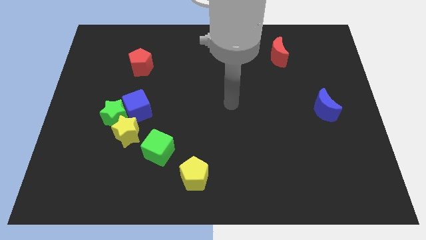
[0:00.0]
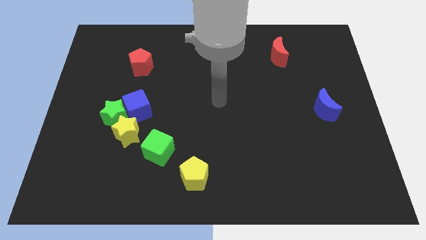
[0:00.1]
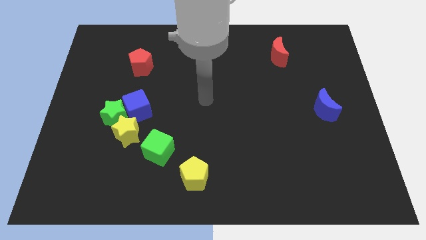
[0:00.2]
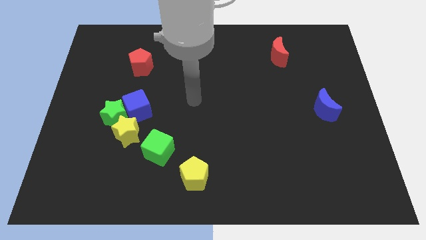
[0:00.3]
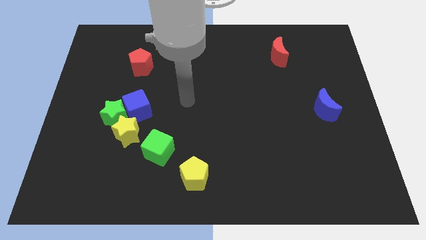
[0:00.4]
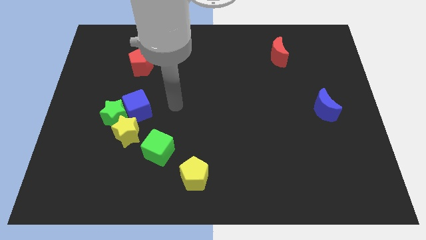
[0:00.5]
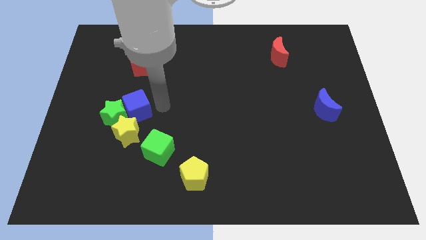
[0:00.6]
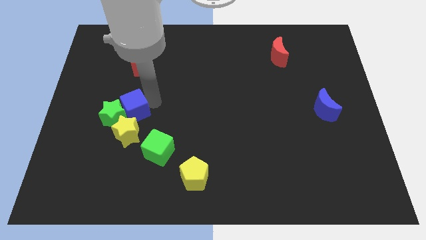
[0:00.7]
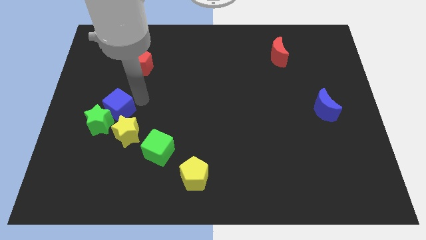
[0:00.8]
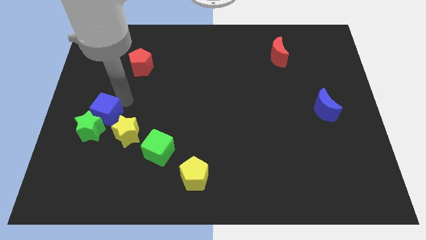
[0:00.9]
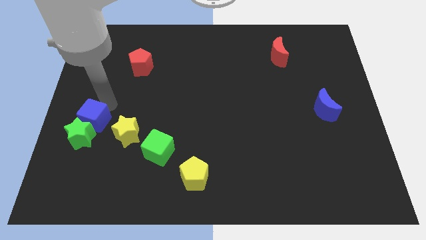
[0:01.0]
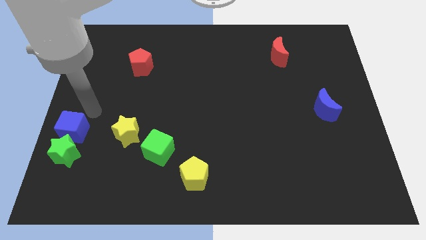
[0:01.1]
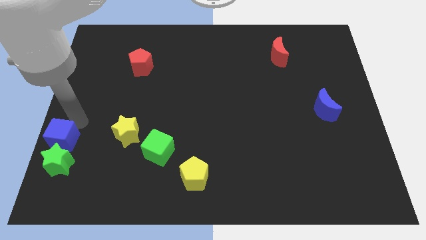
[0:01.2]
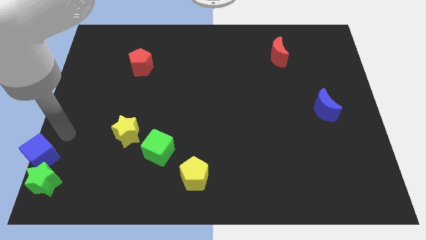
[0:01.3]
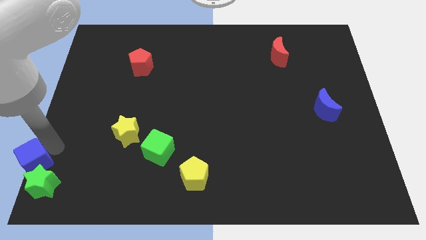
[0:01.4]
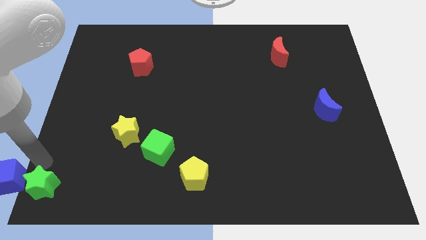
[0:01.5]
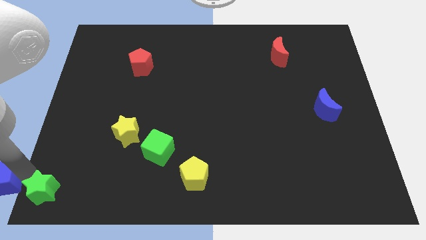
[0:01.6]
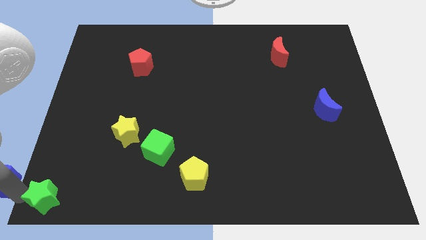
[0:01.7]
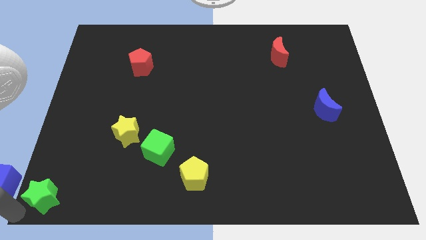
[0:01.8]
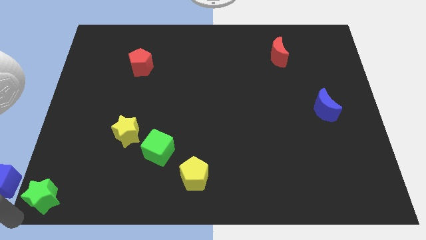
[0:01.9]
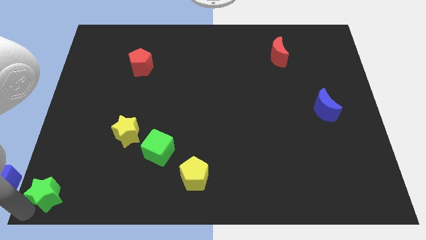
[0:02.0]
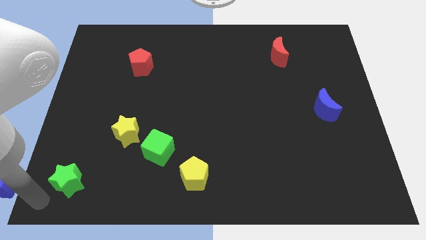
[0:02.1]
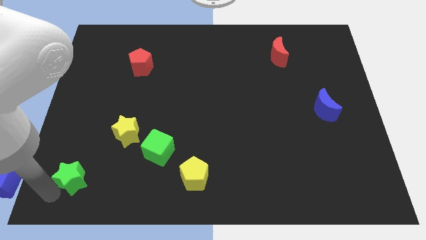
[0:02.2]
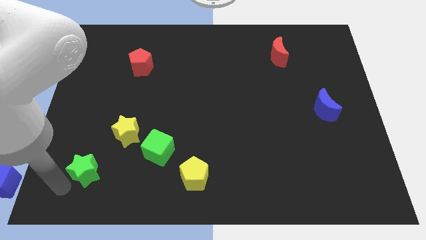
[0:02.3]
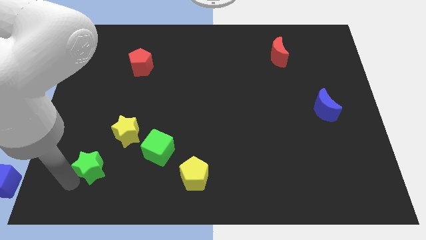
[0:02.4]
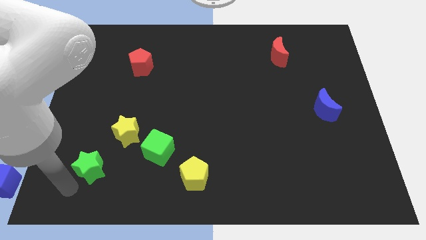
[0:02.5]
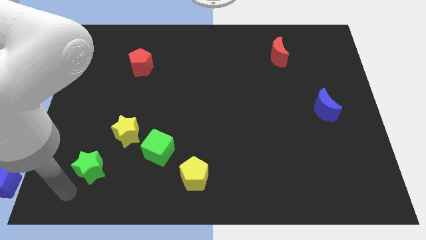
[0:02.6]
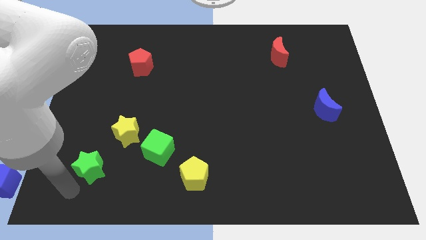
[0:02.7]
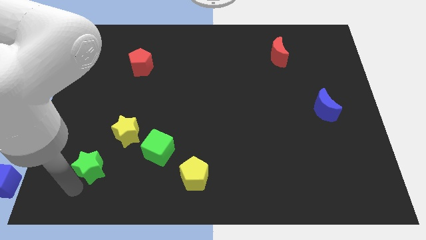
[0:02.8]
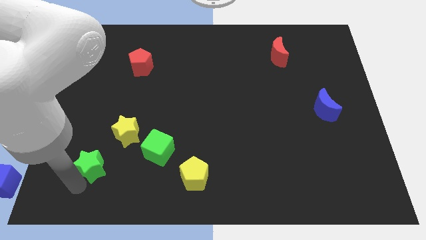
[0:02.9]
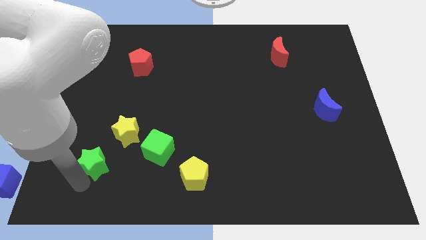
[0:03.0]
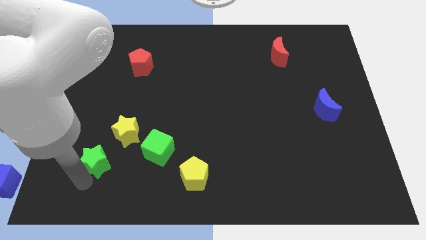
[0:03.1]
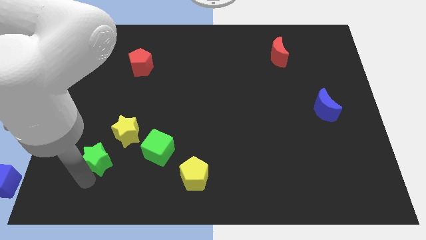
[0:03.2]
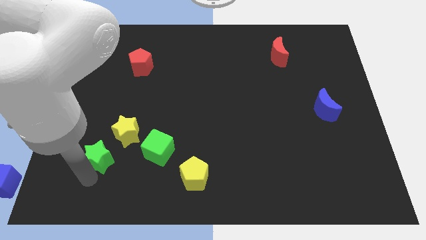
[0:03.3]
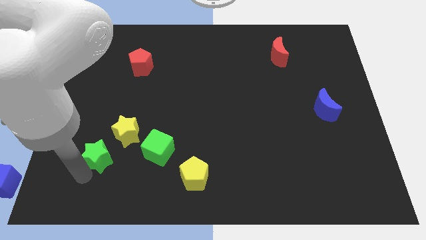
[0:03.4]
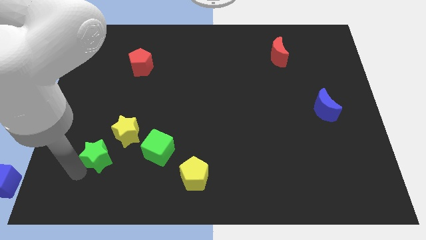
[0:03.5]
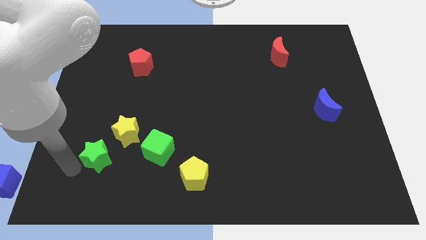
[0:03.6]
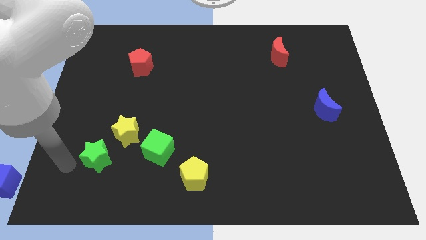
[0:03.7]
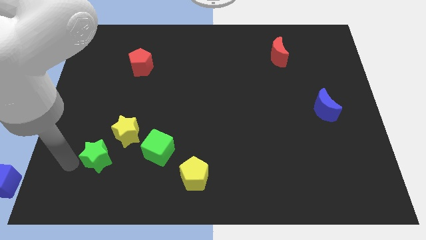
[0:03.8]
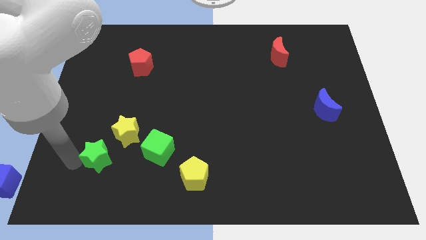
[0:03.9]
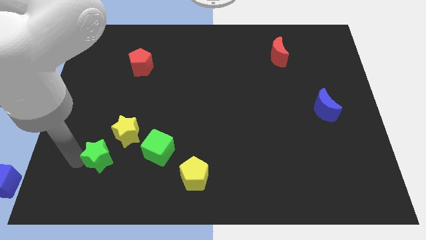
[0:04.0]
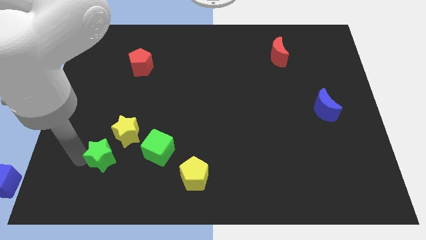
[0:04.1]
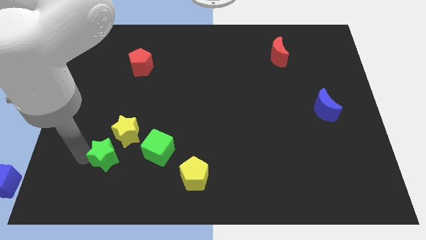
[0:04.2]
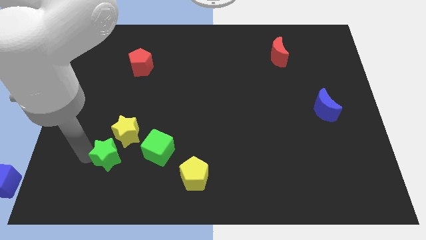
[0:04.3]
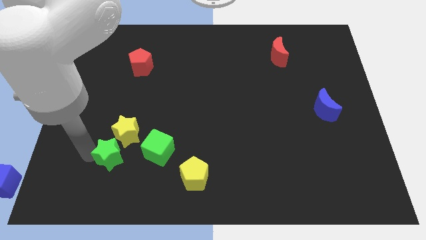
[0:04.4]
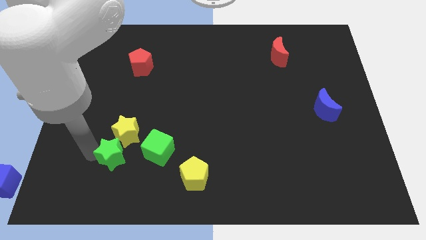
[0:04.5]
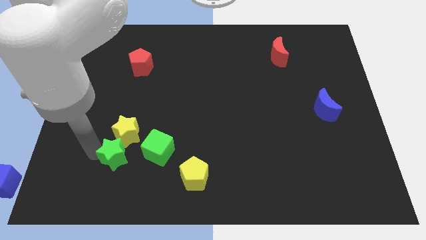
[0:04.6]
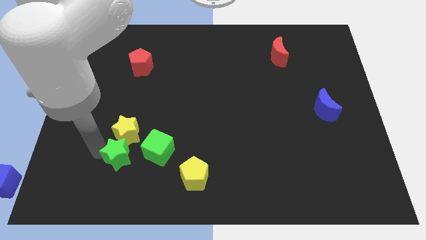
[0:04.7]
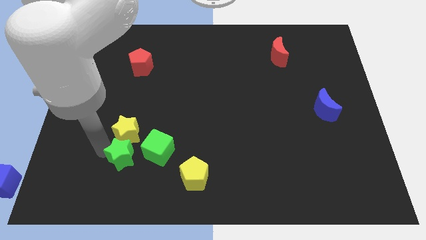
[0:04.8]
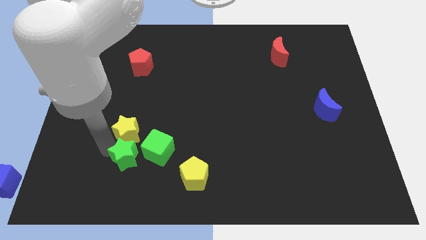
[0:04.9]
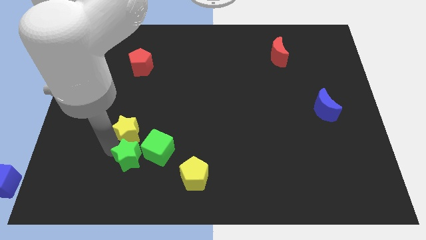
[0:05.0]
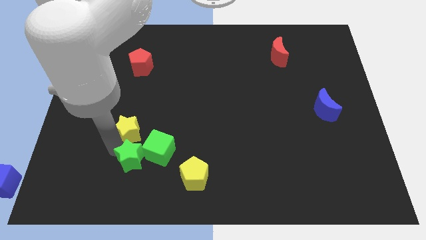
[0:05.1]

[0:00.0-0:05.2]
put the green star towards the green cube

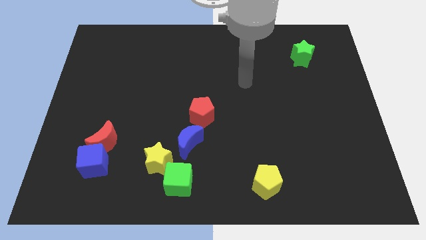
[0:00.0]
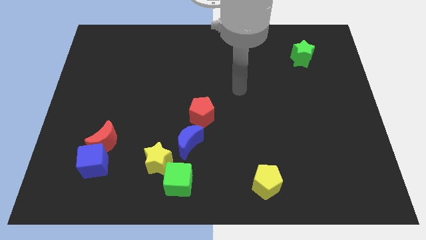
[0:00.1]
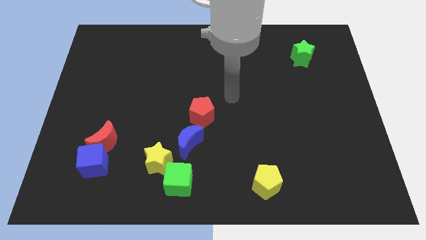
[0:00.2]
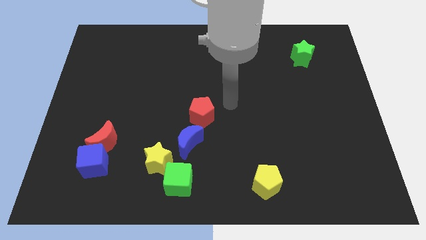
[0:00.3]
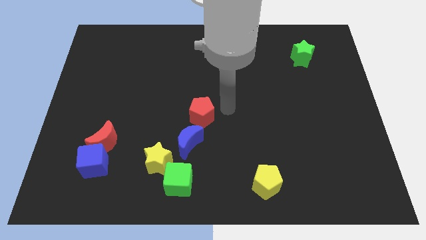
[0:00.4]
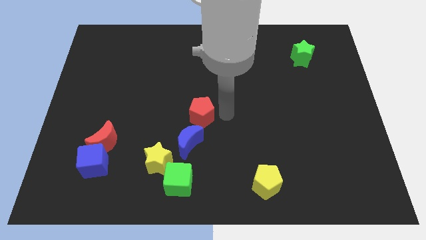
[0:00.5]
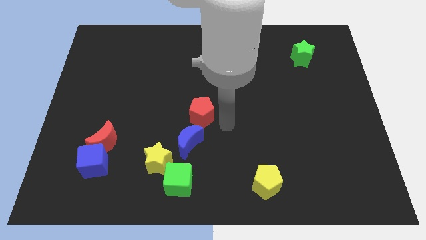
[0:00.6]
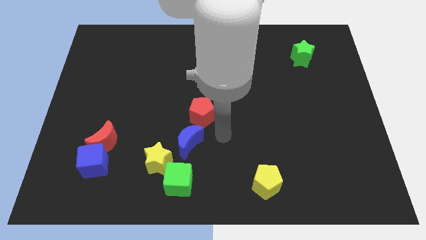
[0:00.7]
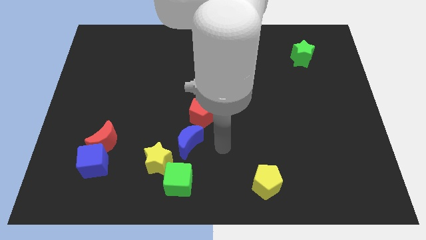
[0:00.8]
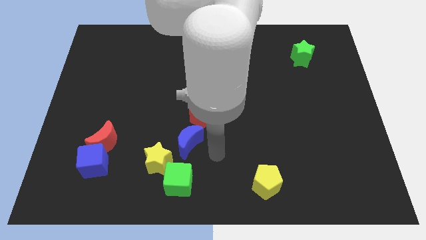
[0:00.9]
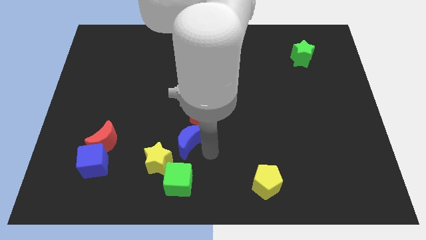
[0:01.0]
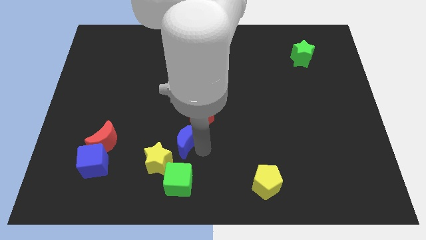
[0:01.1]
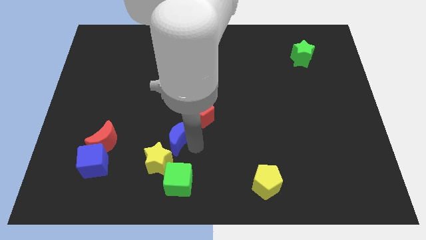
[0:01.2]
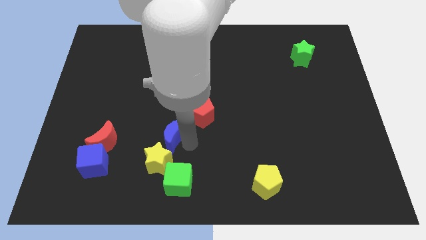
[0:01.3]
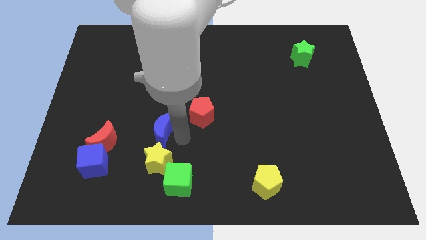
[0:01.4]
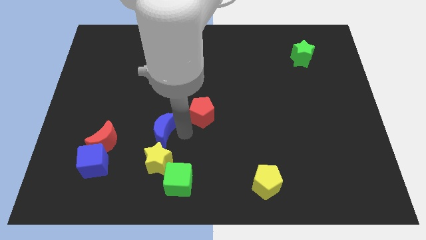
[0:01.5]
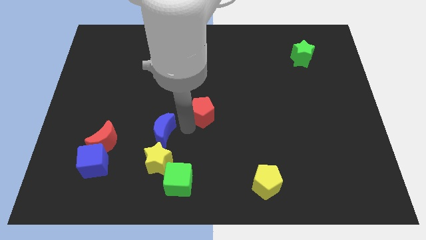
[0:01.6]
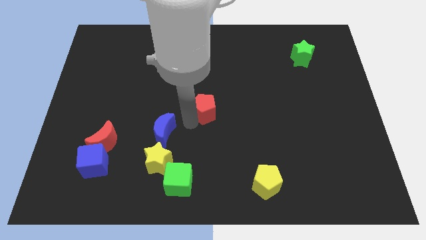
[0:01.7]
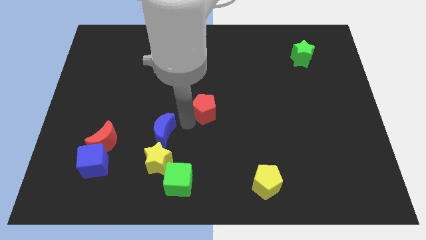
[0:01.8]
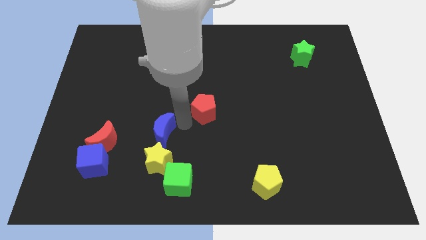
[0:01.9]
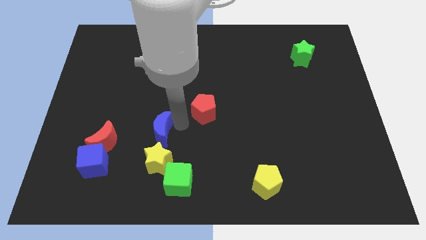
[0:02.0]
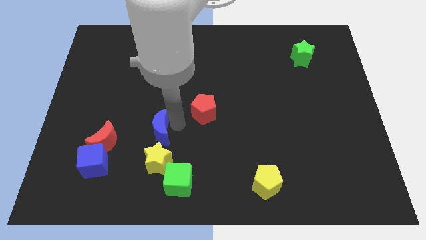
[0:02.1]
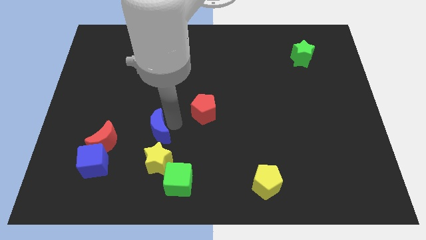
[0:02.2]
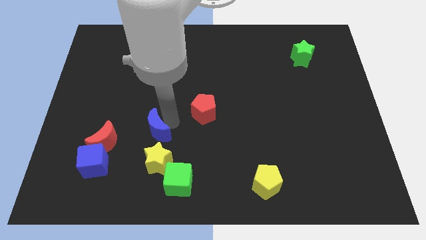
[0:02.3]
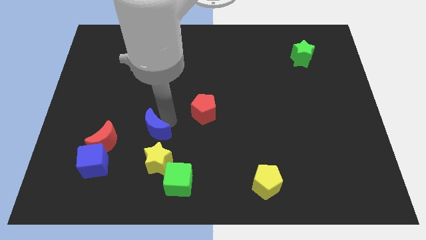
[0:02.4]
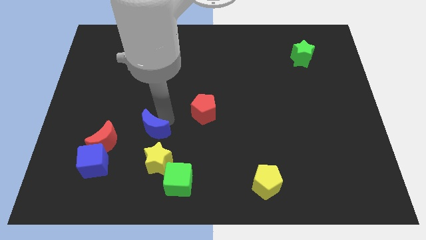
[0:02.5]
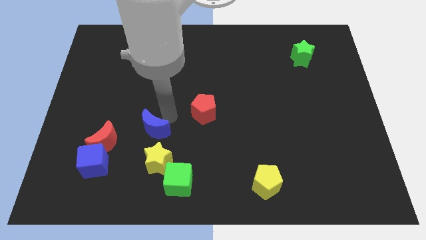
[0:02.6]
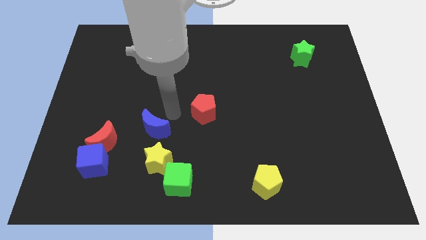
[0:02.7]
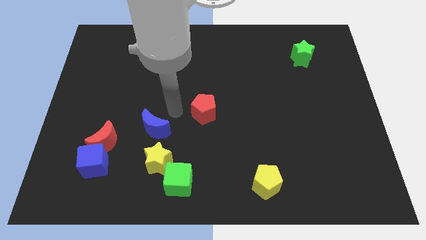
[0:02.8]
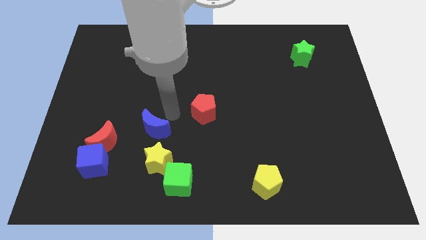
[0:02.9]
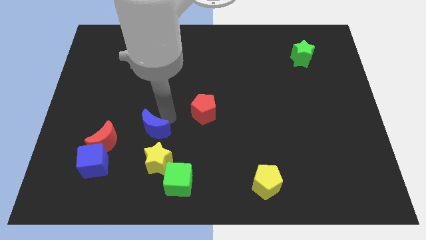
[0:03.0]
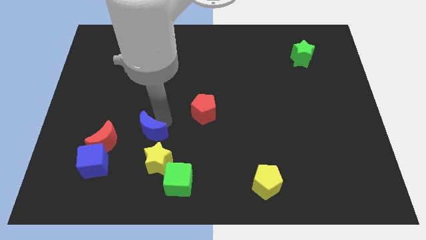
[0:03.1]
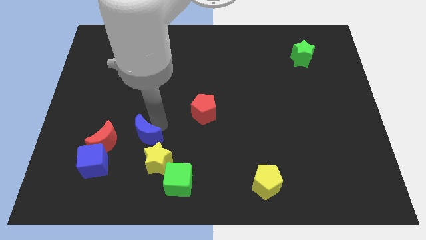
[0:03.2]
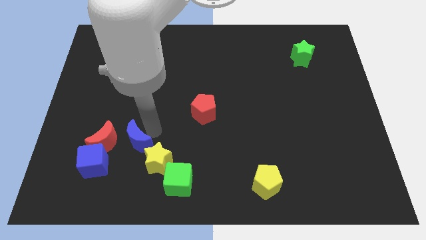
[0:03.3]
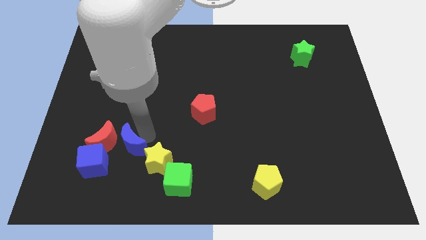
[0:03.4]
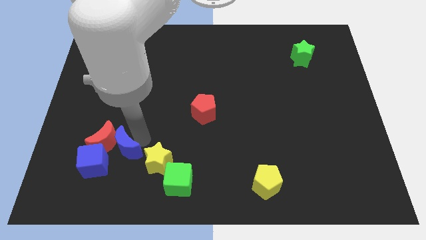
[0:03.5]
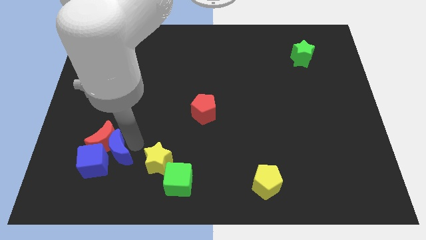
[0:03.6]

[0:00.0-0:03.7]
slide the blue moon to the blue cube
